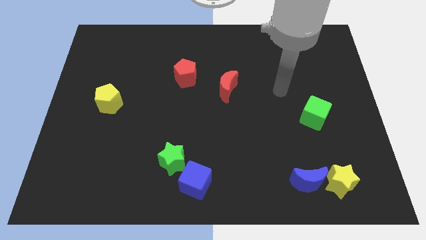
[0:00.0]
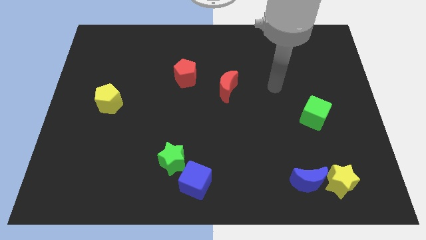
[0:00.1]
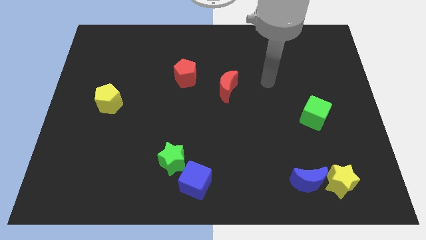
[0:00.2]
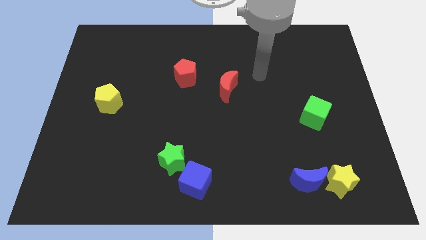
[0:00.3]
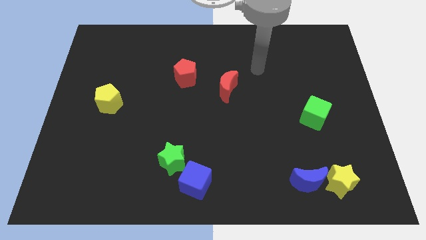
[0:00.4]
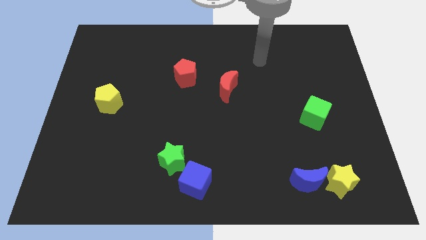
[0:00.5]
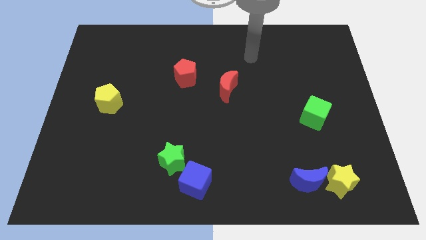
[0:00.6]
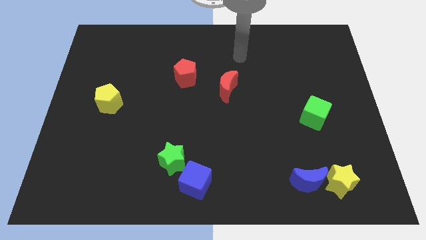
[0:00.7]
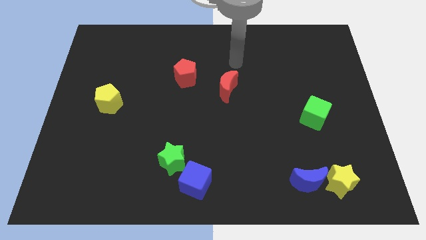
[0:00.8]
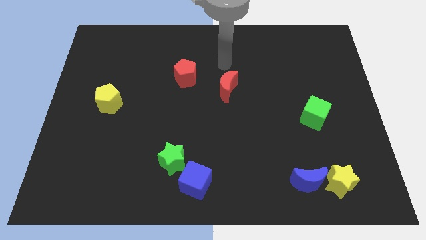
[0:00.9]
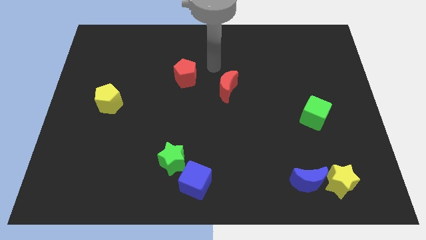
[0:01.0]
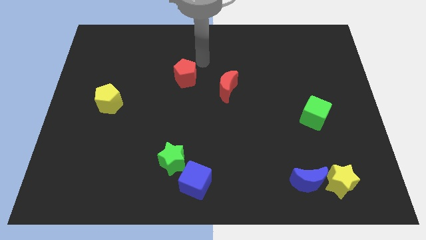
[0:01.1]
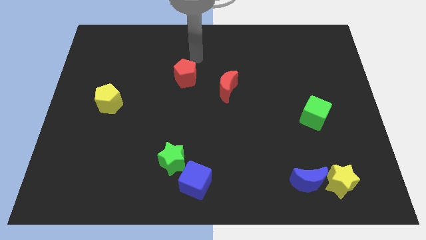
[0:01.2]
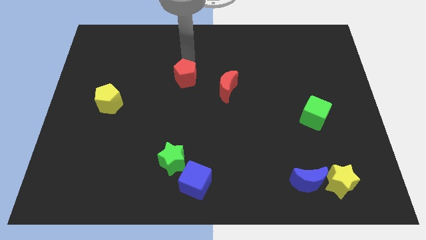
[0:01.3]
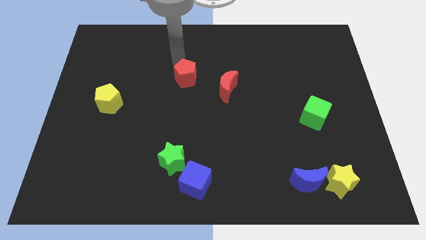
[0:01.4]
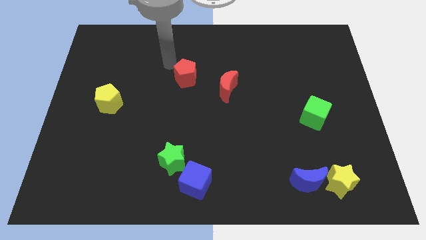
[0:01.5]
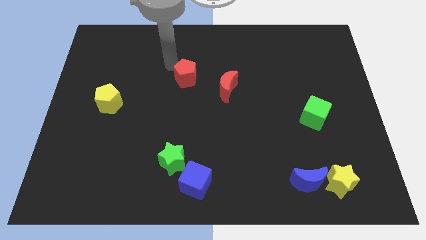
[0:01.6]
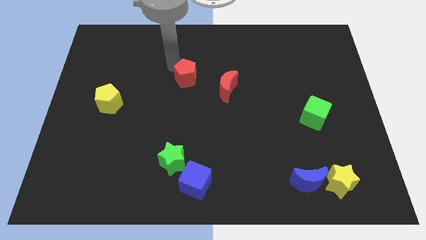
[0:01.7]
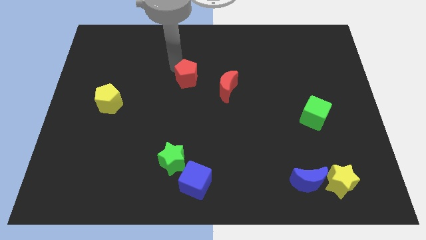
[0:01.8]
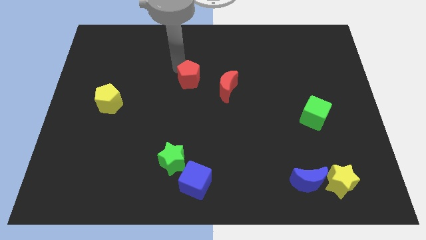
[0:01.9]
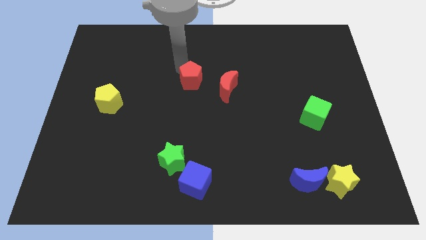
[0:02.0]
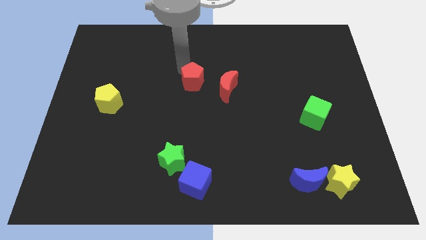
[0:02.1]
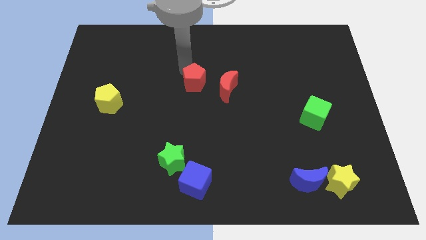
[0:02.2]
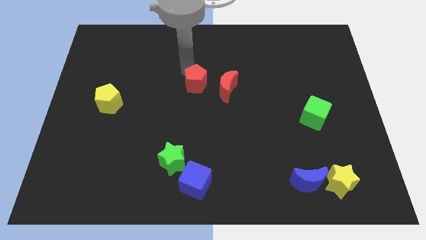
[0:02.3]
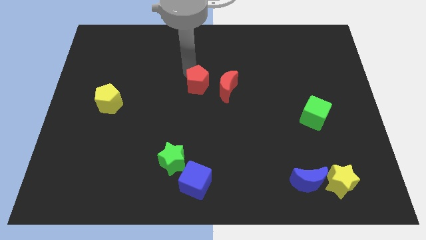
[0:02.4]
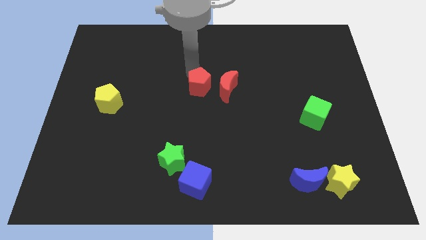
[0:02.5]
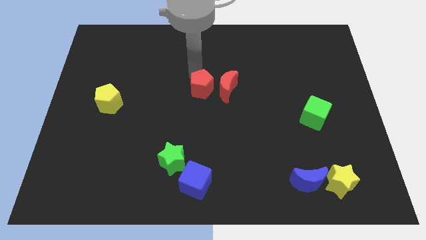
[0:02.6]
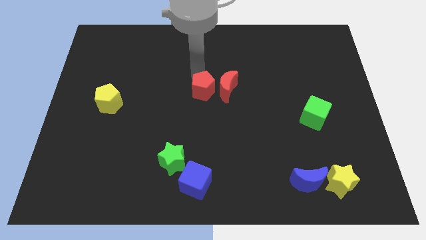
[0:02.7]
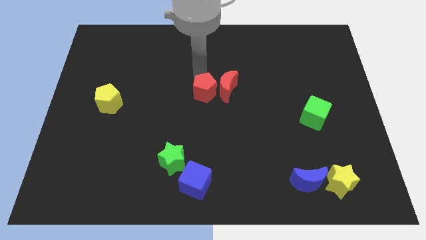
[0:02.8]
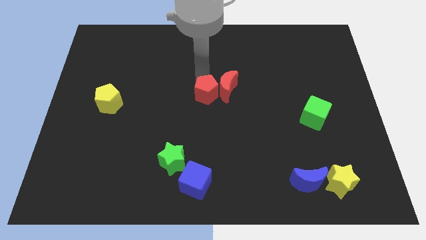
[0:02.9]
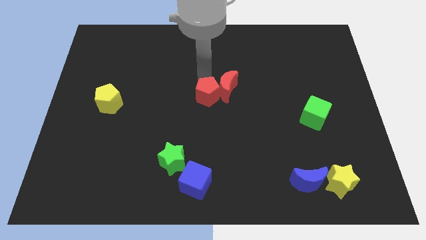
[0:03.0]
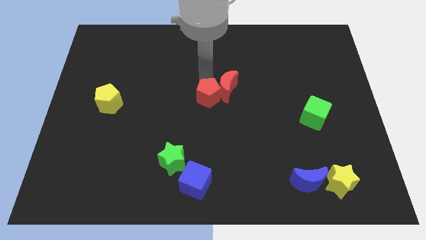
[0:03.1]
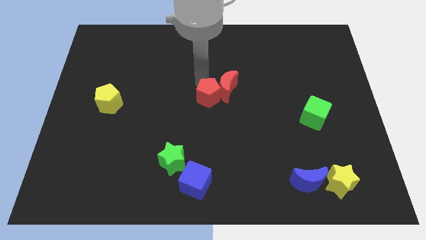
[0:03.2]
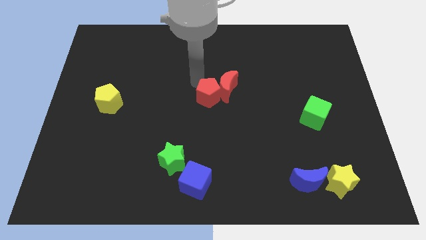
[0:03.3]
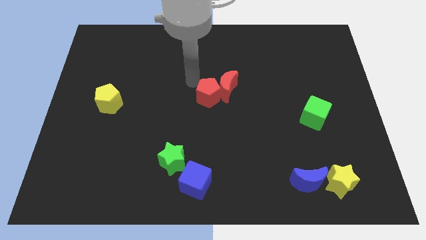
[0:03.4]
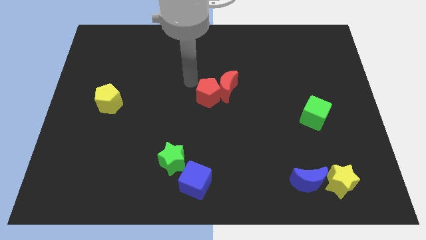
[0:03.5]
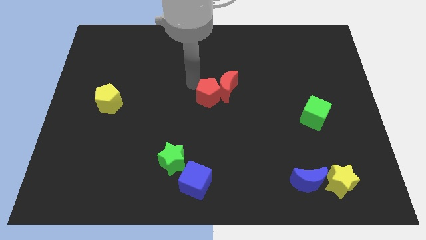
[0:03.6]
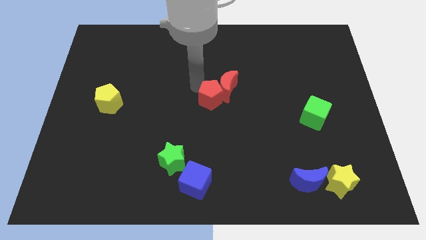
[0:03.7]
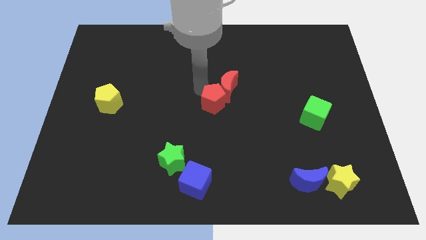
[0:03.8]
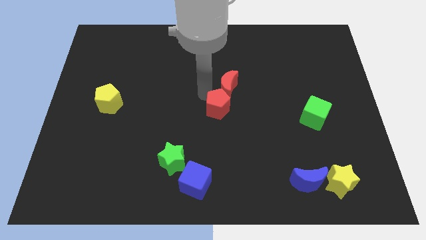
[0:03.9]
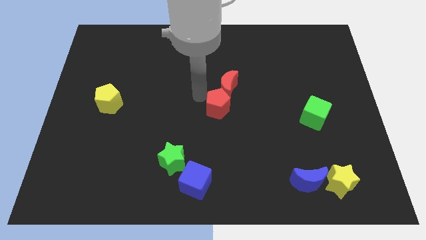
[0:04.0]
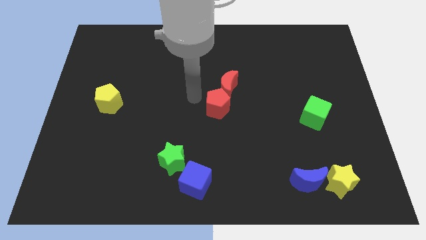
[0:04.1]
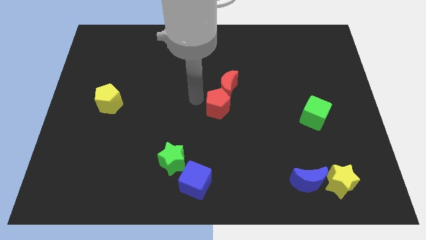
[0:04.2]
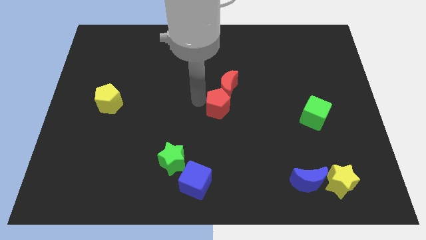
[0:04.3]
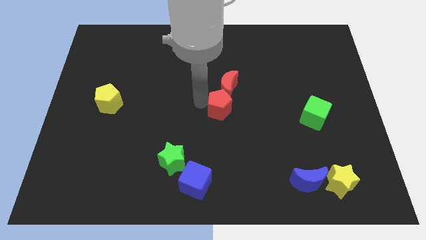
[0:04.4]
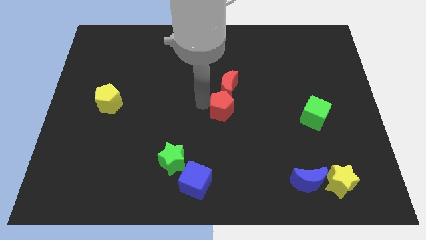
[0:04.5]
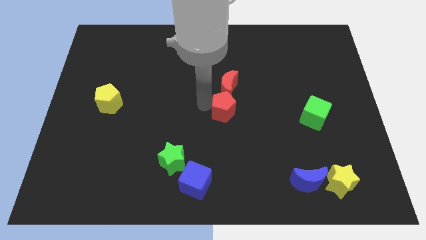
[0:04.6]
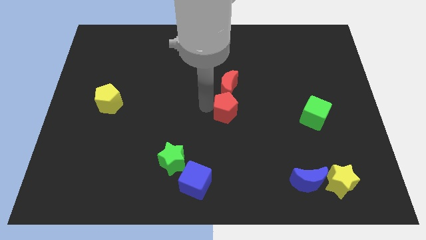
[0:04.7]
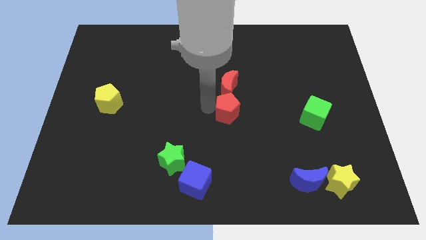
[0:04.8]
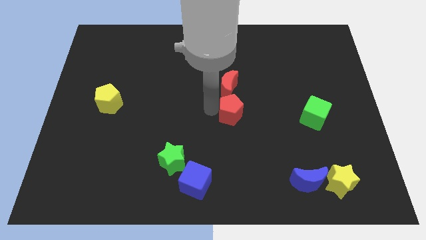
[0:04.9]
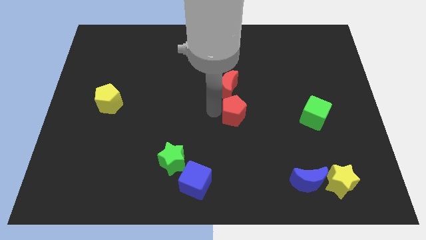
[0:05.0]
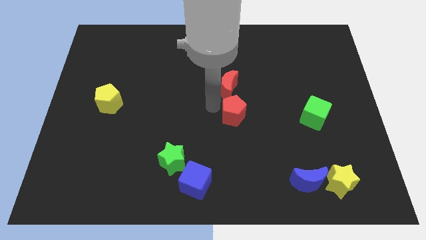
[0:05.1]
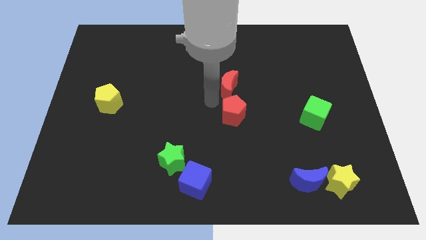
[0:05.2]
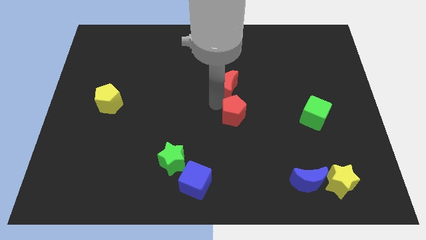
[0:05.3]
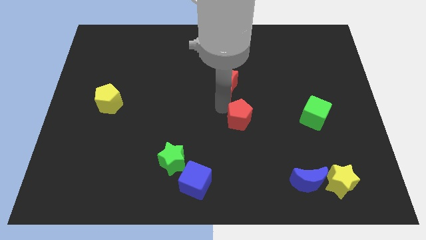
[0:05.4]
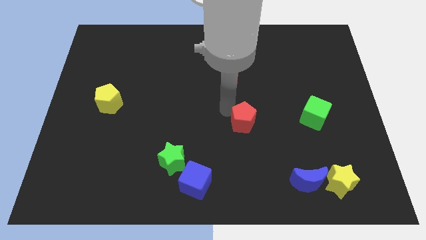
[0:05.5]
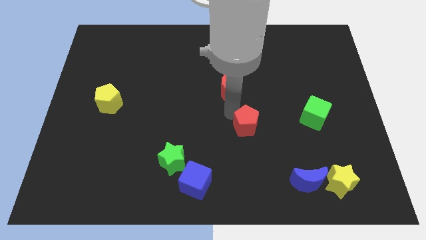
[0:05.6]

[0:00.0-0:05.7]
move the red pentagon diagonally downwards and to the right

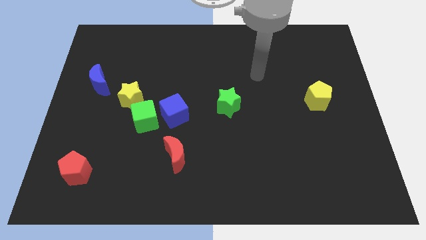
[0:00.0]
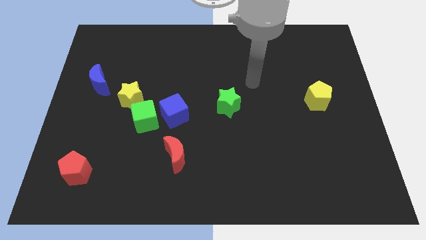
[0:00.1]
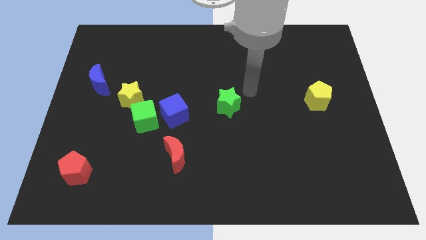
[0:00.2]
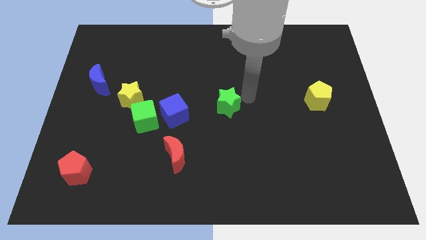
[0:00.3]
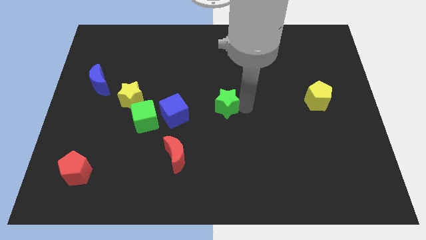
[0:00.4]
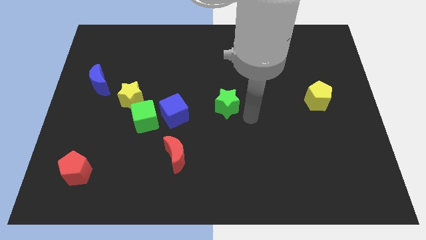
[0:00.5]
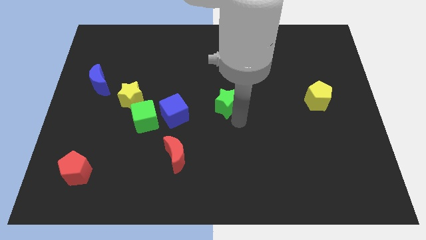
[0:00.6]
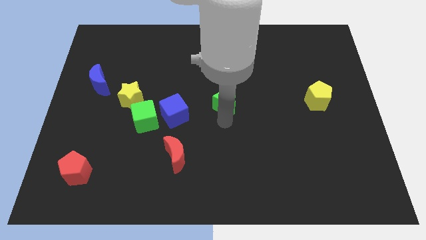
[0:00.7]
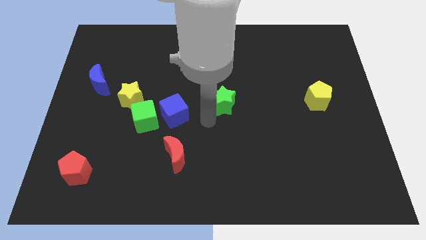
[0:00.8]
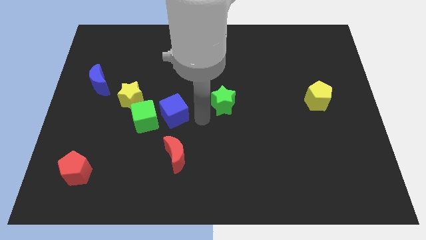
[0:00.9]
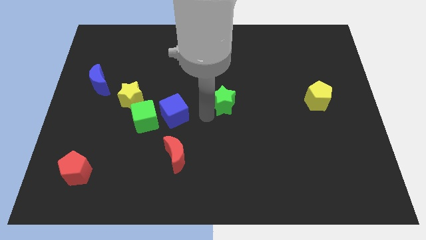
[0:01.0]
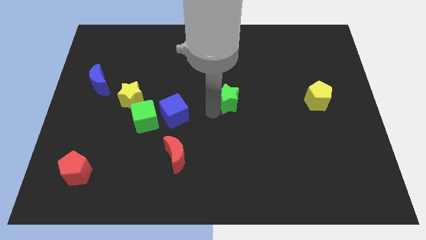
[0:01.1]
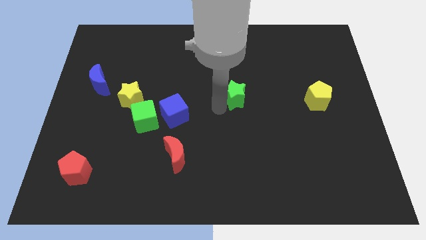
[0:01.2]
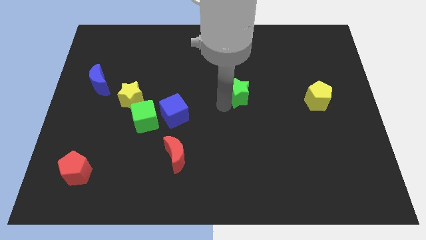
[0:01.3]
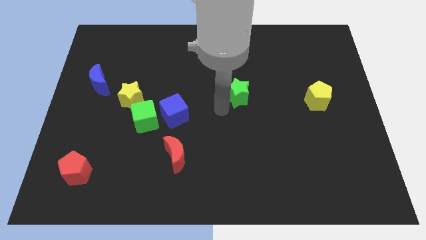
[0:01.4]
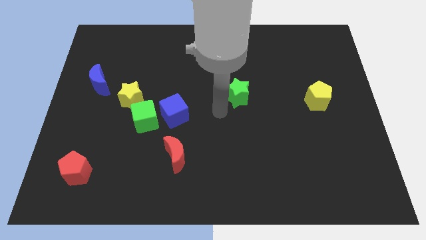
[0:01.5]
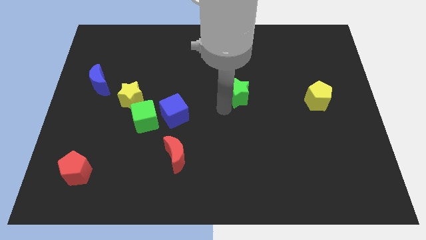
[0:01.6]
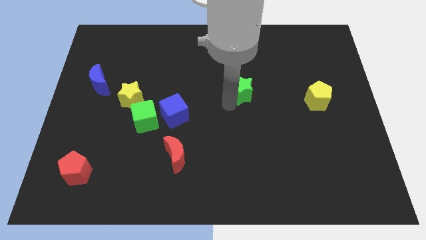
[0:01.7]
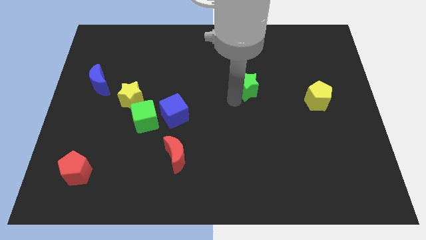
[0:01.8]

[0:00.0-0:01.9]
push the green star a little bit up and to the right diagonally

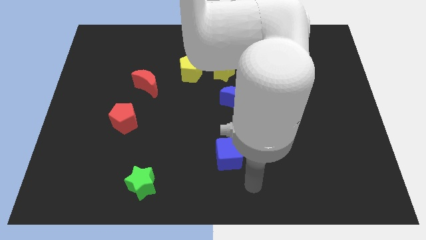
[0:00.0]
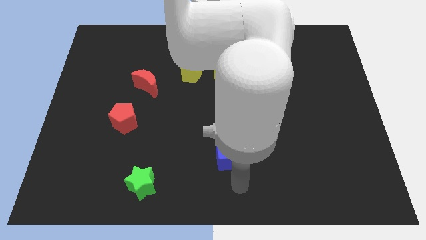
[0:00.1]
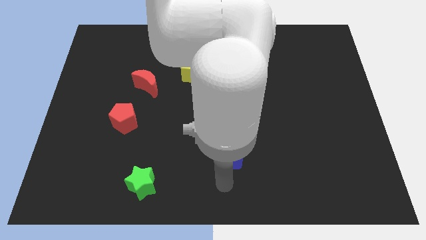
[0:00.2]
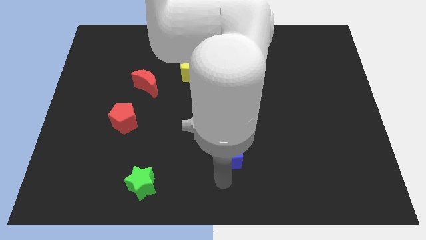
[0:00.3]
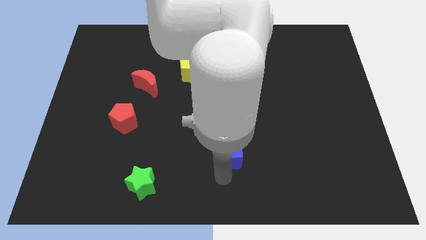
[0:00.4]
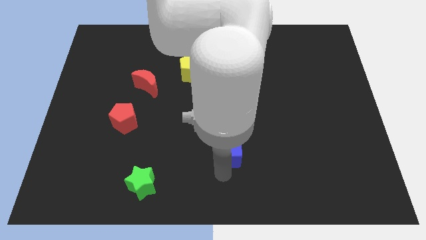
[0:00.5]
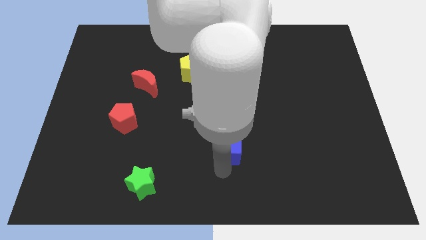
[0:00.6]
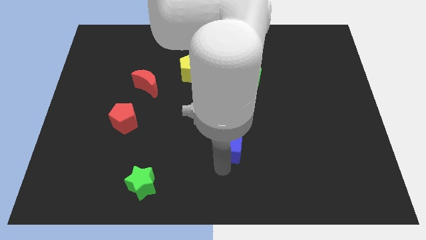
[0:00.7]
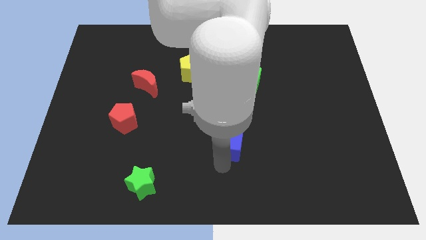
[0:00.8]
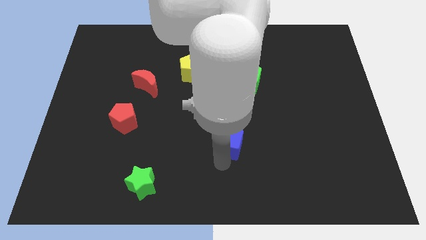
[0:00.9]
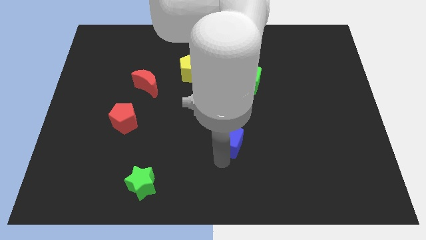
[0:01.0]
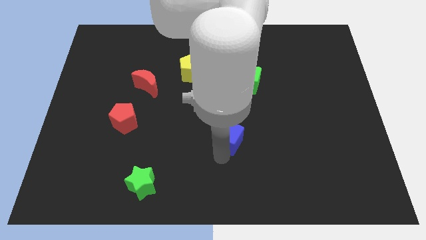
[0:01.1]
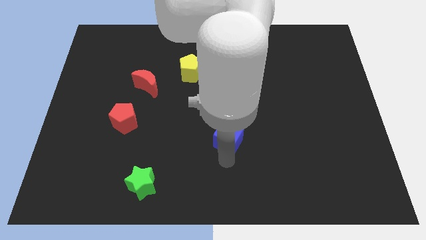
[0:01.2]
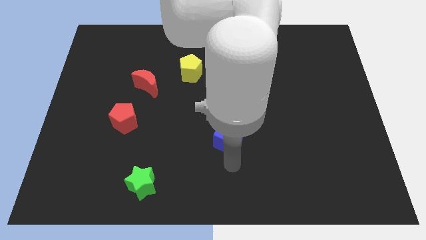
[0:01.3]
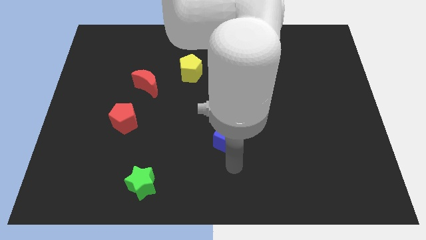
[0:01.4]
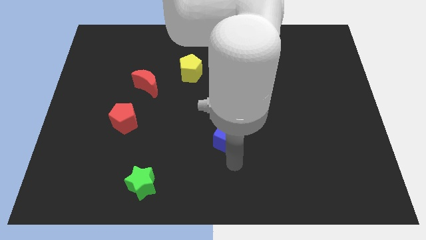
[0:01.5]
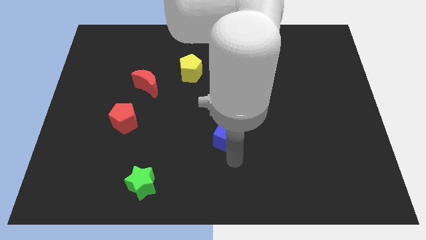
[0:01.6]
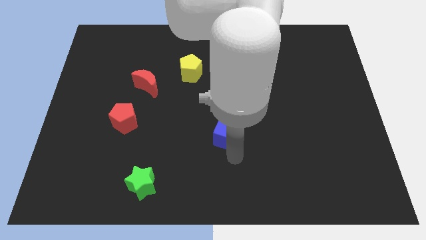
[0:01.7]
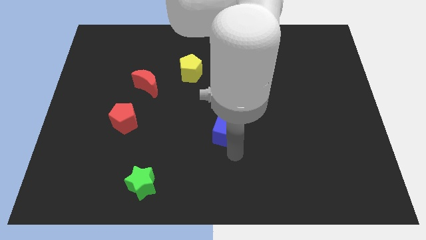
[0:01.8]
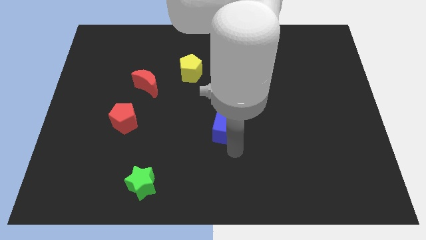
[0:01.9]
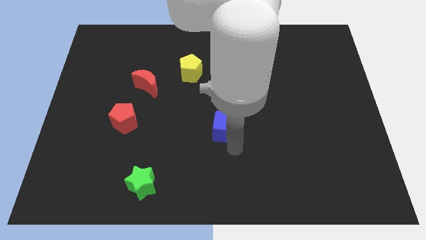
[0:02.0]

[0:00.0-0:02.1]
slightly slide the blue cube up
